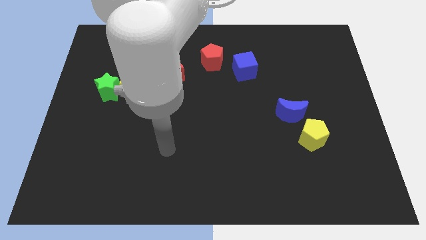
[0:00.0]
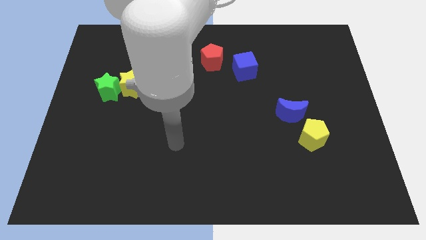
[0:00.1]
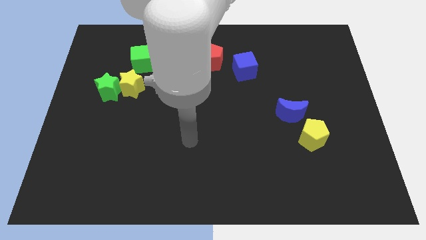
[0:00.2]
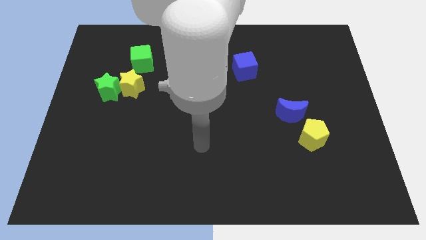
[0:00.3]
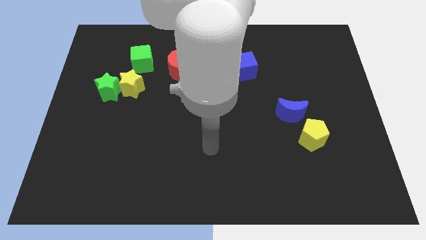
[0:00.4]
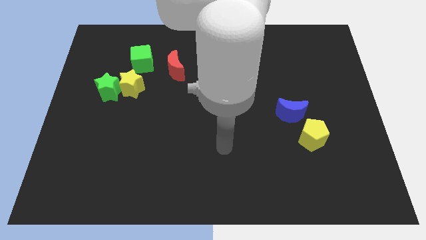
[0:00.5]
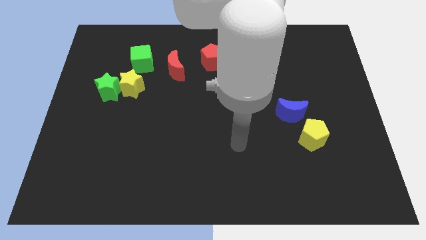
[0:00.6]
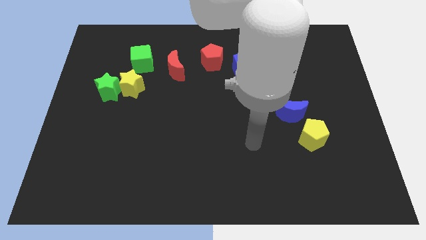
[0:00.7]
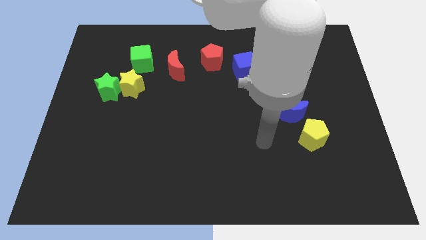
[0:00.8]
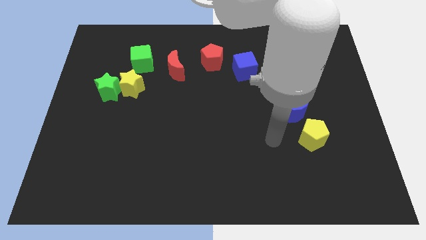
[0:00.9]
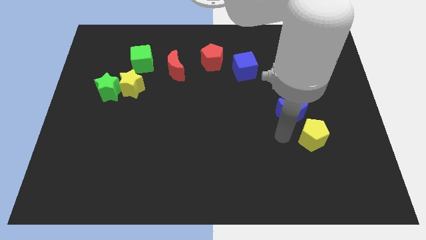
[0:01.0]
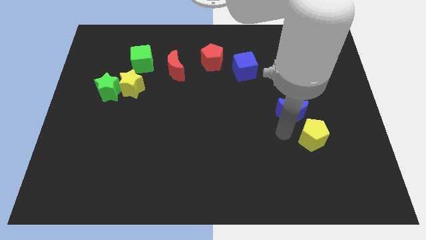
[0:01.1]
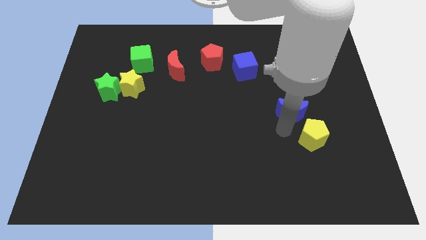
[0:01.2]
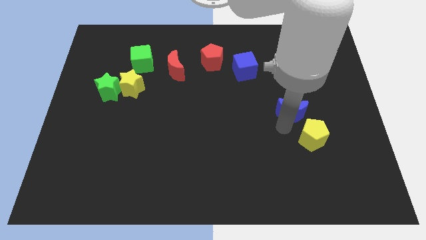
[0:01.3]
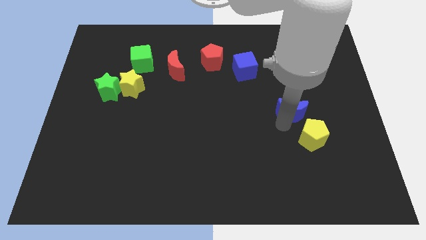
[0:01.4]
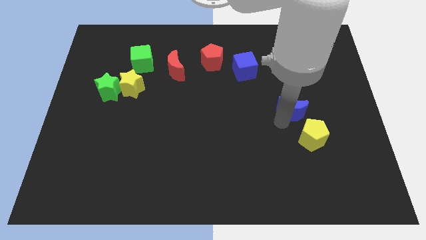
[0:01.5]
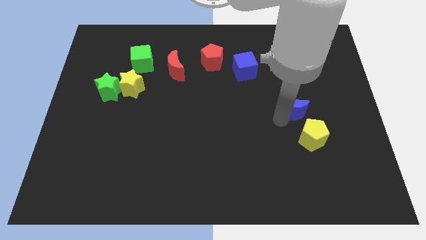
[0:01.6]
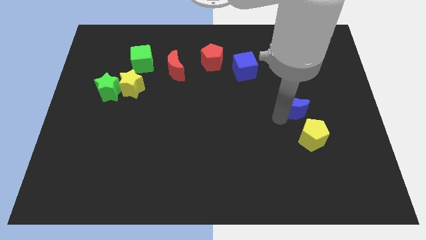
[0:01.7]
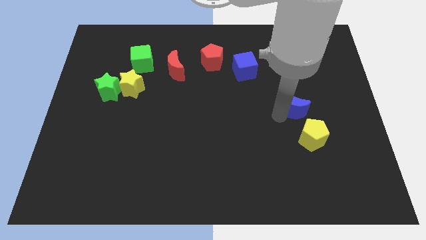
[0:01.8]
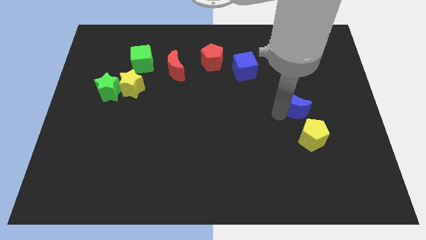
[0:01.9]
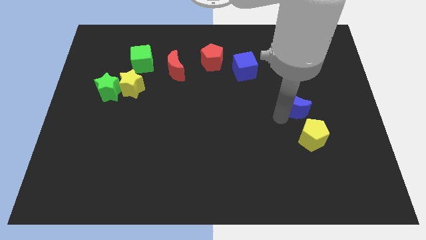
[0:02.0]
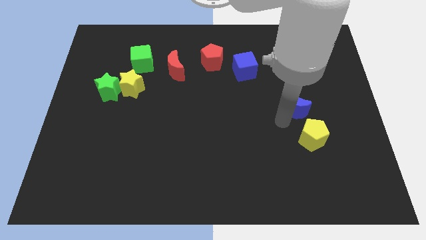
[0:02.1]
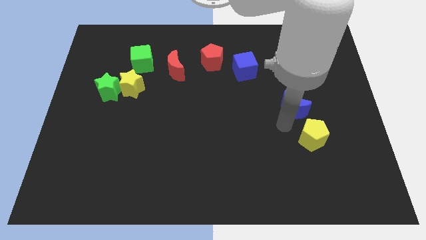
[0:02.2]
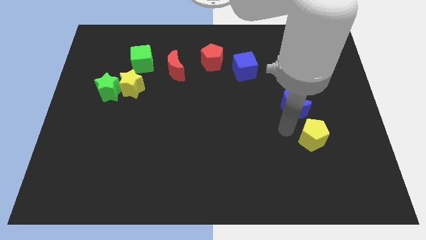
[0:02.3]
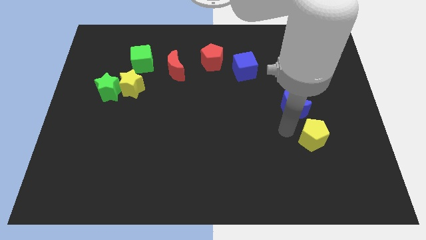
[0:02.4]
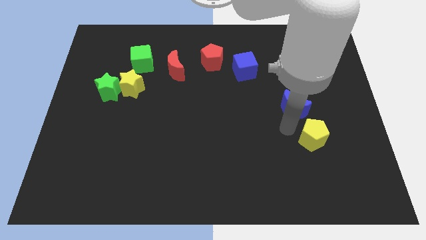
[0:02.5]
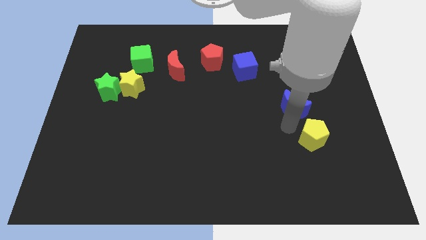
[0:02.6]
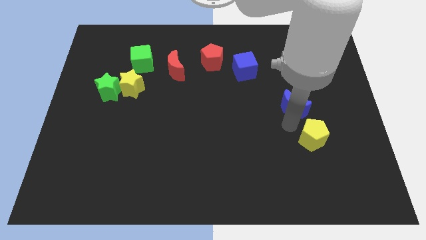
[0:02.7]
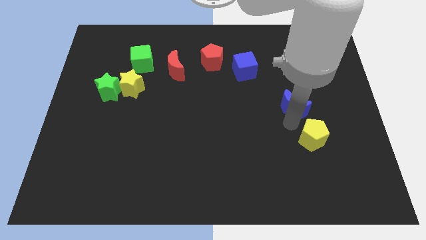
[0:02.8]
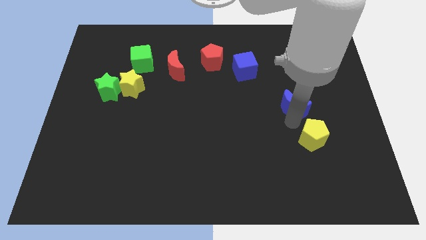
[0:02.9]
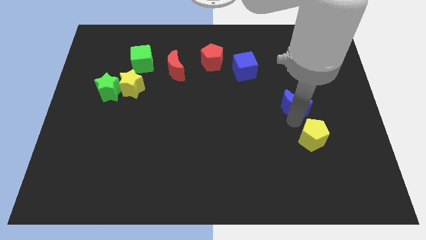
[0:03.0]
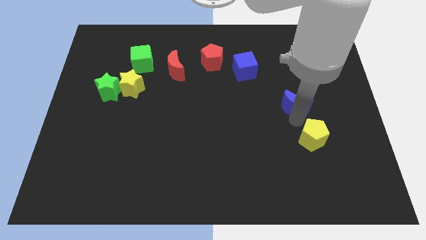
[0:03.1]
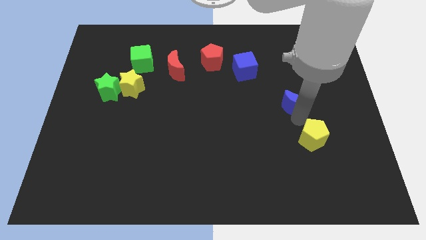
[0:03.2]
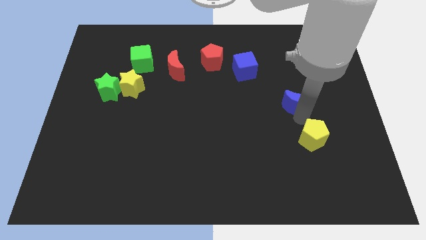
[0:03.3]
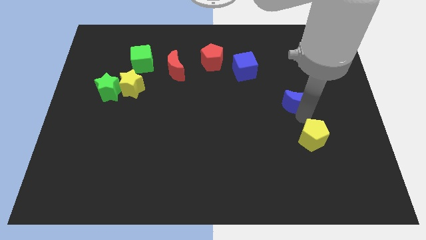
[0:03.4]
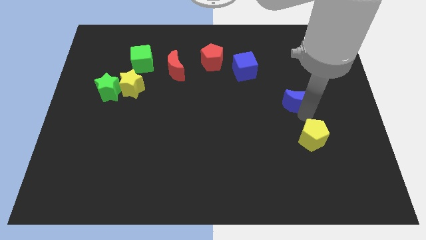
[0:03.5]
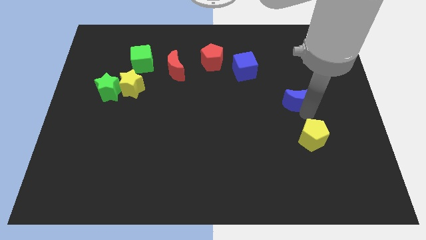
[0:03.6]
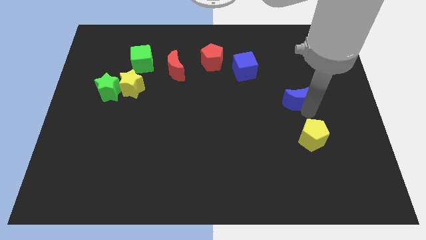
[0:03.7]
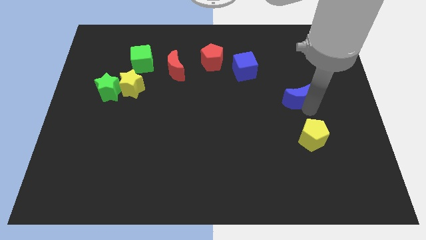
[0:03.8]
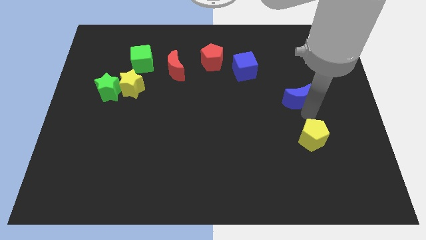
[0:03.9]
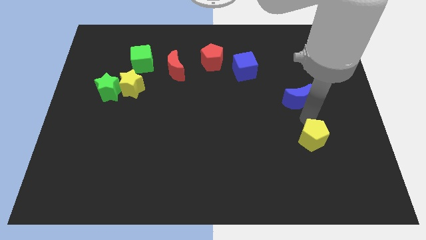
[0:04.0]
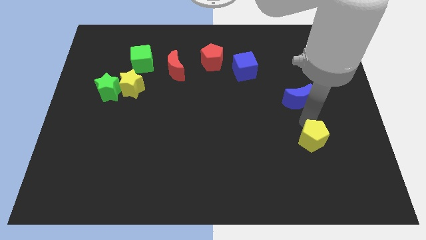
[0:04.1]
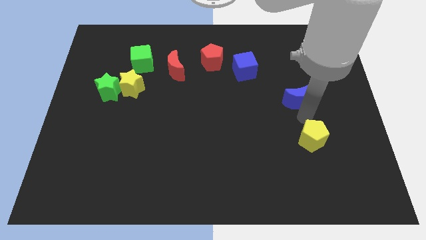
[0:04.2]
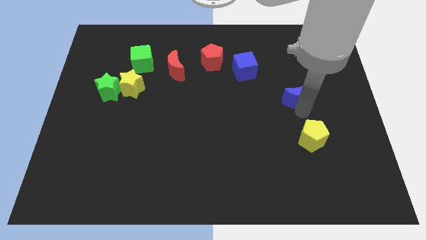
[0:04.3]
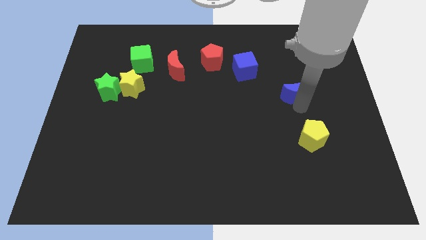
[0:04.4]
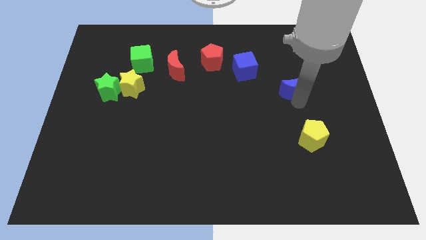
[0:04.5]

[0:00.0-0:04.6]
slide the blue moon upwards a little bit

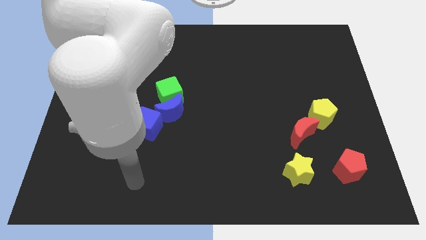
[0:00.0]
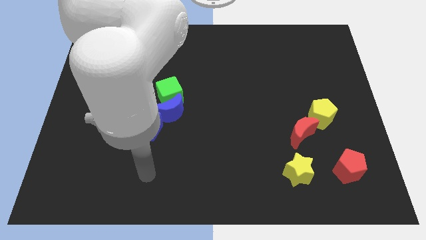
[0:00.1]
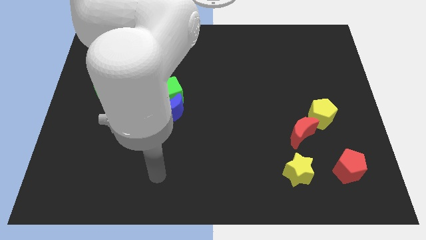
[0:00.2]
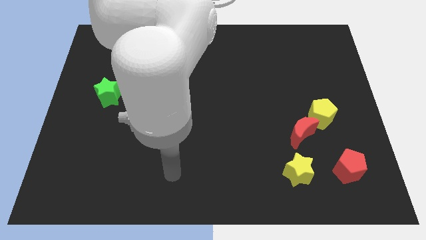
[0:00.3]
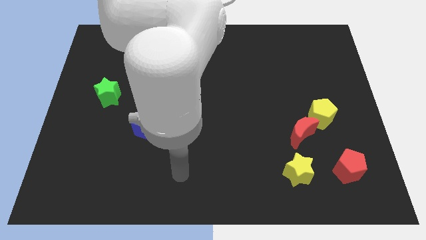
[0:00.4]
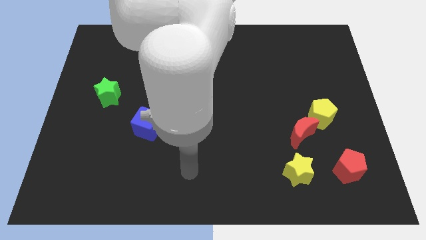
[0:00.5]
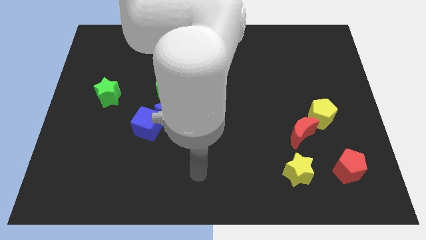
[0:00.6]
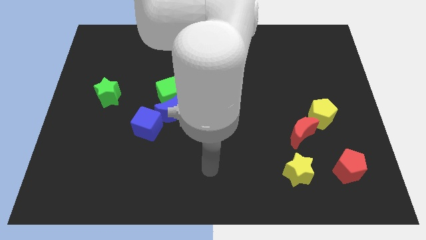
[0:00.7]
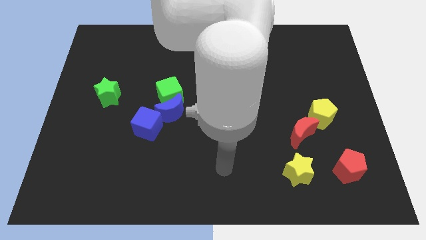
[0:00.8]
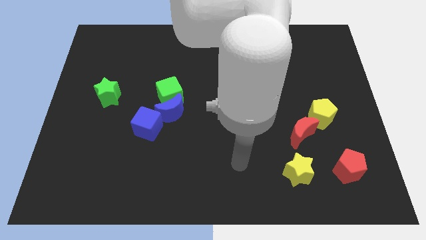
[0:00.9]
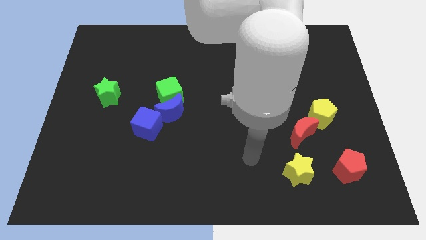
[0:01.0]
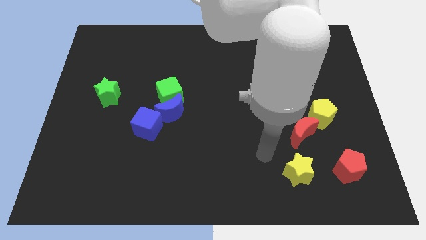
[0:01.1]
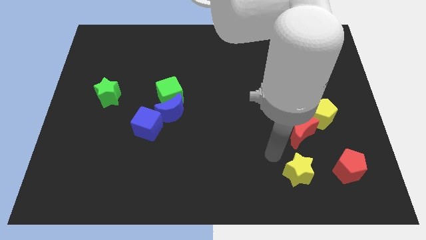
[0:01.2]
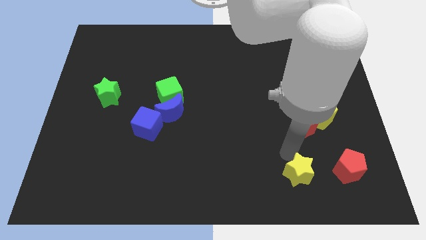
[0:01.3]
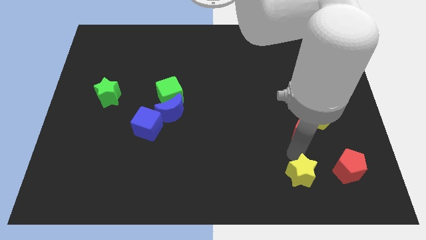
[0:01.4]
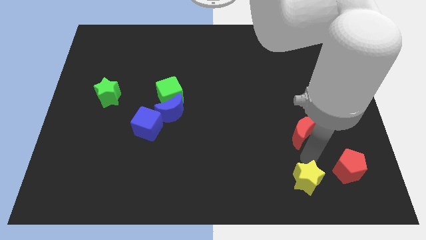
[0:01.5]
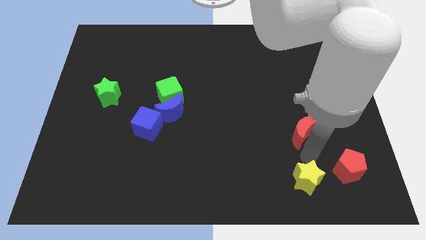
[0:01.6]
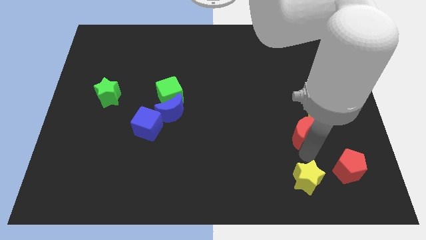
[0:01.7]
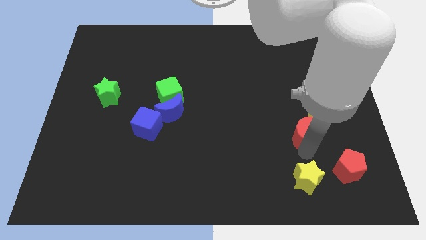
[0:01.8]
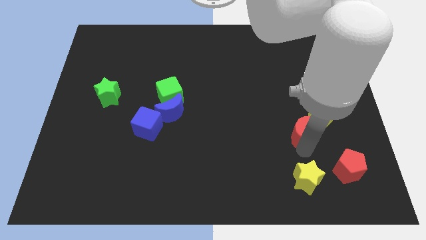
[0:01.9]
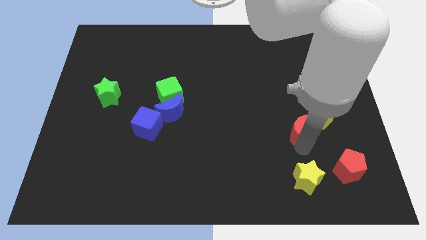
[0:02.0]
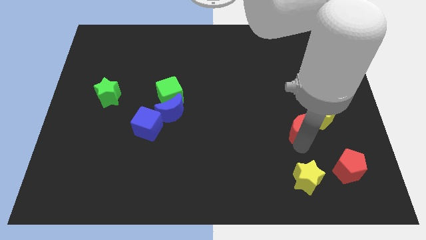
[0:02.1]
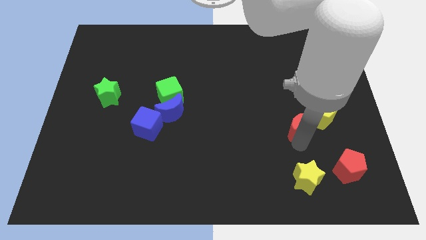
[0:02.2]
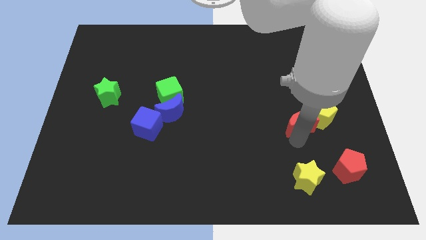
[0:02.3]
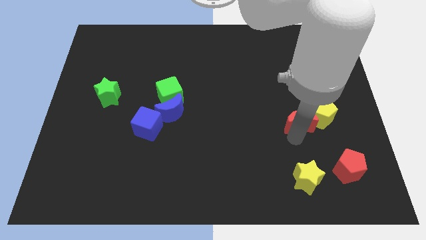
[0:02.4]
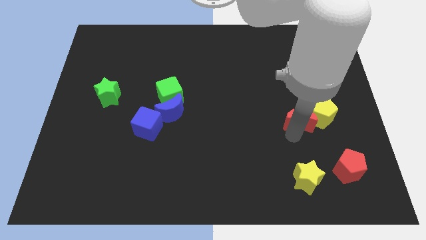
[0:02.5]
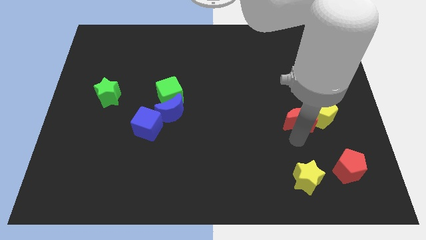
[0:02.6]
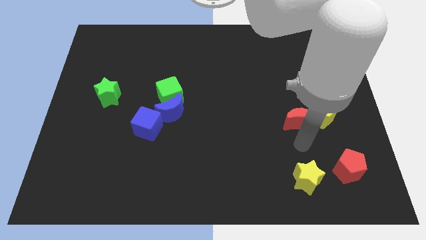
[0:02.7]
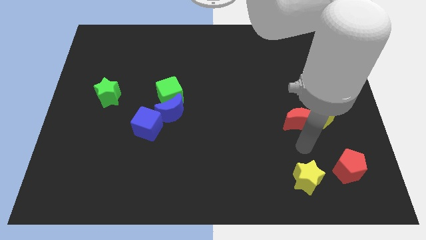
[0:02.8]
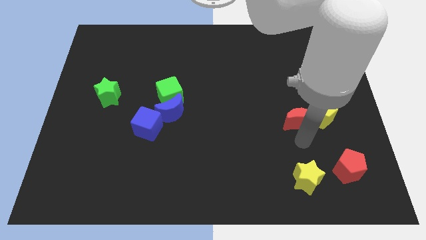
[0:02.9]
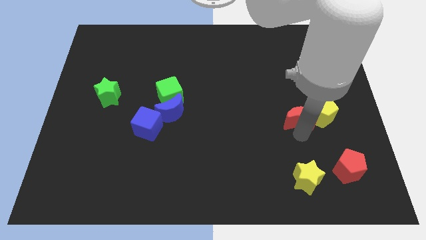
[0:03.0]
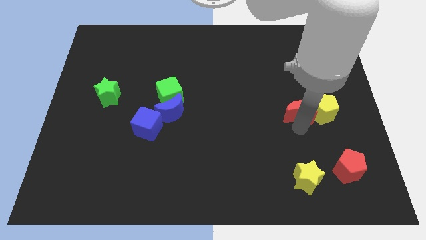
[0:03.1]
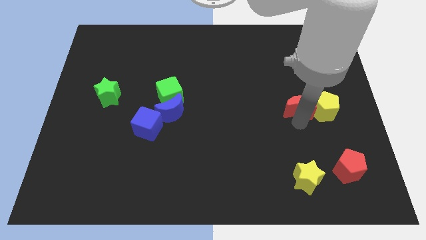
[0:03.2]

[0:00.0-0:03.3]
slightly push the red moon upwards

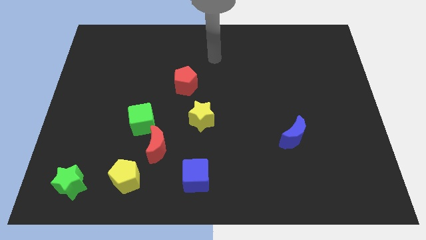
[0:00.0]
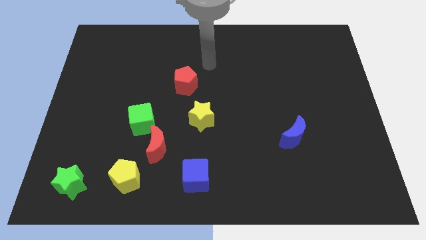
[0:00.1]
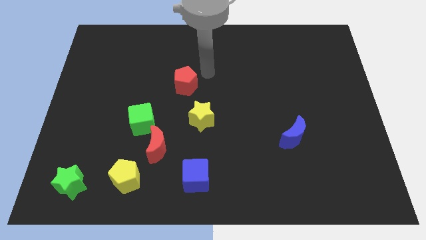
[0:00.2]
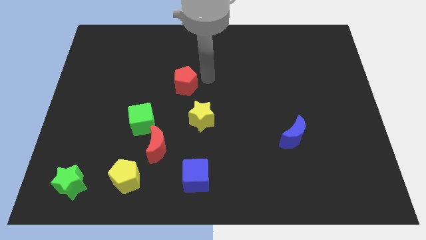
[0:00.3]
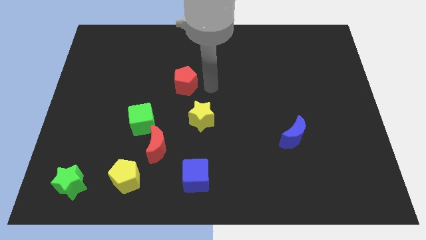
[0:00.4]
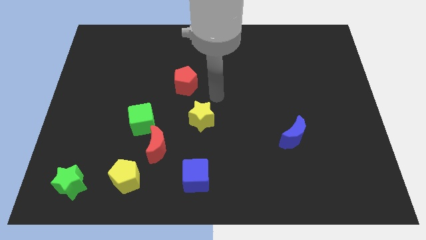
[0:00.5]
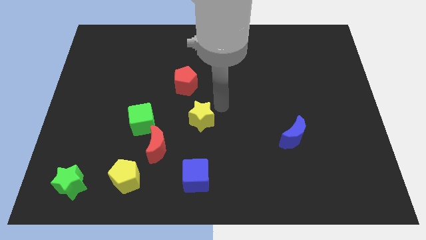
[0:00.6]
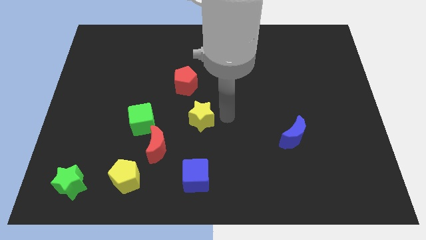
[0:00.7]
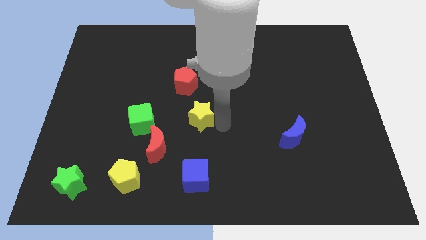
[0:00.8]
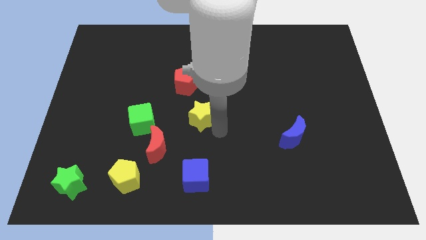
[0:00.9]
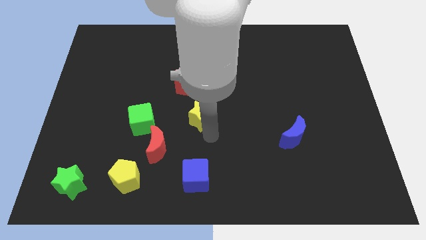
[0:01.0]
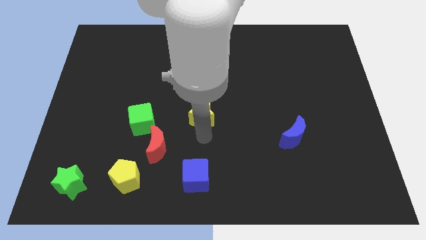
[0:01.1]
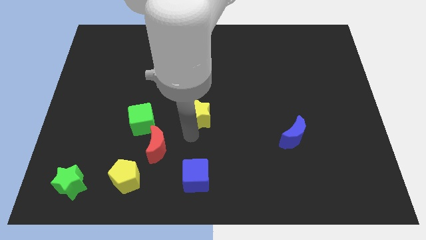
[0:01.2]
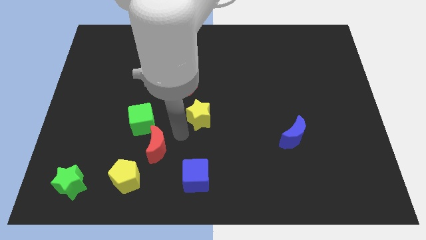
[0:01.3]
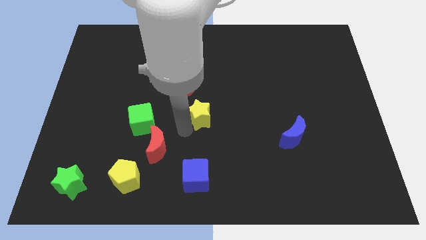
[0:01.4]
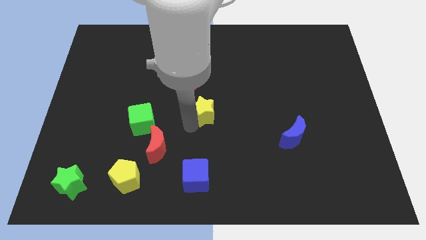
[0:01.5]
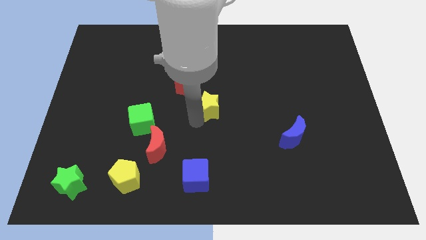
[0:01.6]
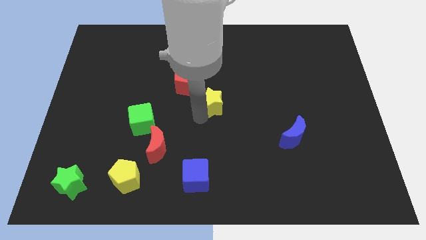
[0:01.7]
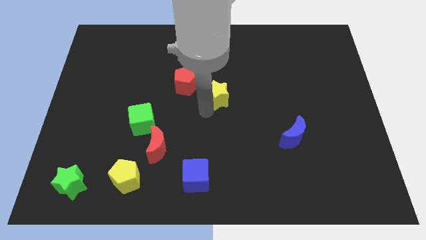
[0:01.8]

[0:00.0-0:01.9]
slide the yellow star a bit diagonally up and right
